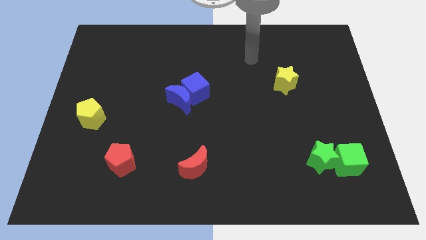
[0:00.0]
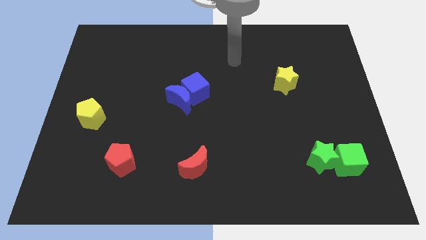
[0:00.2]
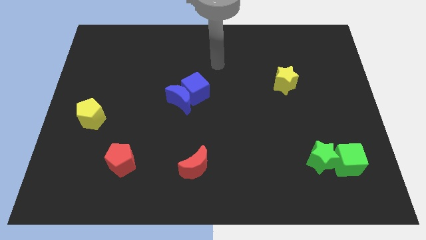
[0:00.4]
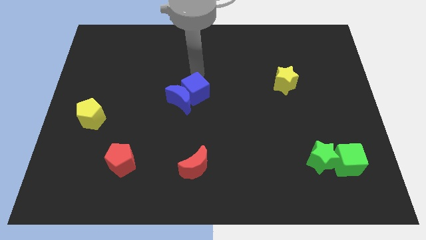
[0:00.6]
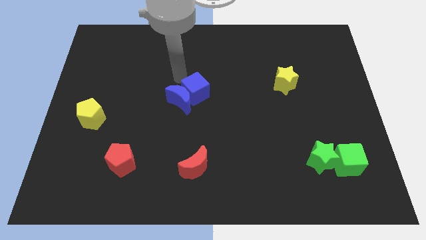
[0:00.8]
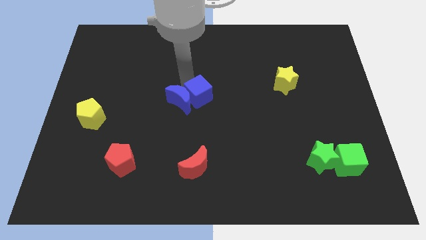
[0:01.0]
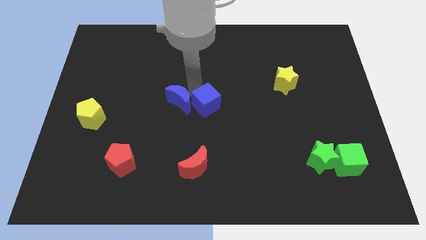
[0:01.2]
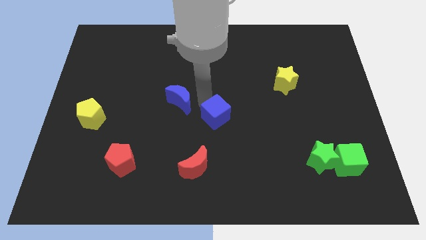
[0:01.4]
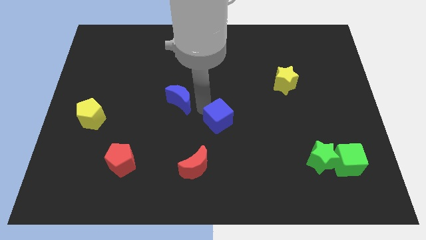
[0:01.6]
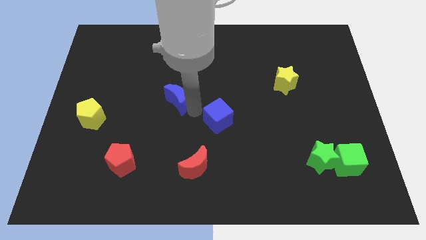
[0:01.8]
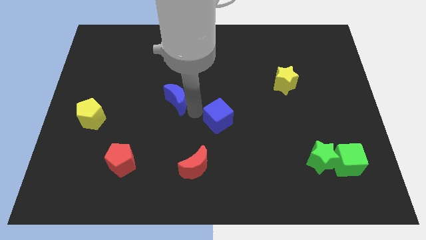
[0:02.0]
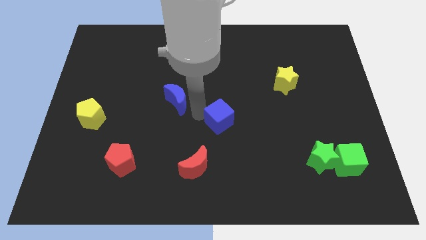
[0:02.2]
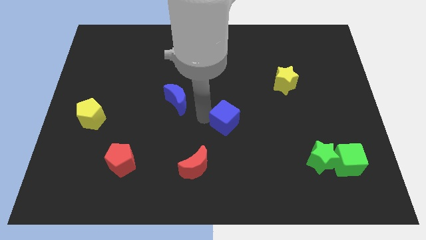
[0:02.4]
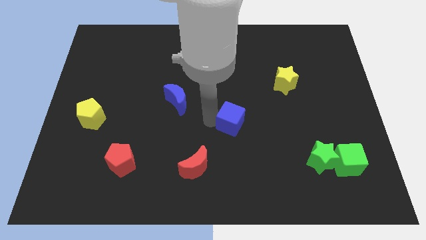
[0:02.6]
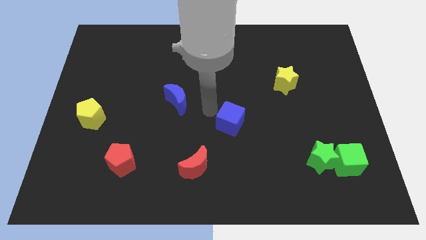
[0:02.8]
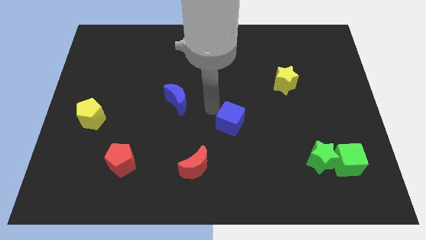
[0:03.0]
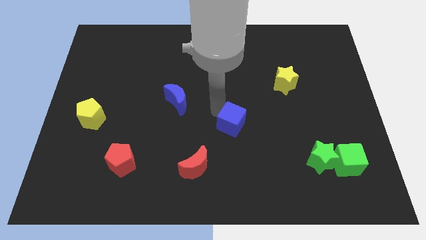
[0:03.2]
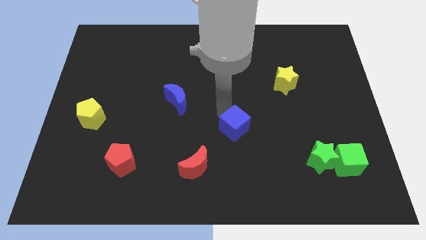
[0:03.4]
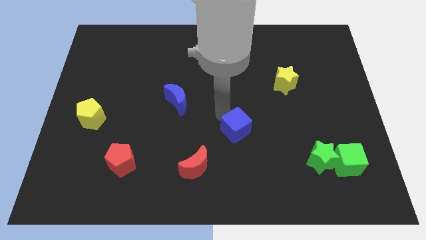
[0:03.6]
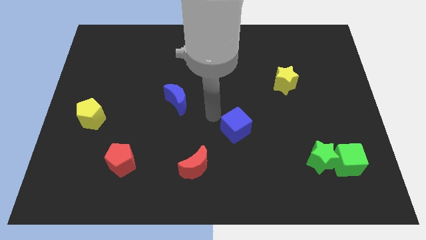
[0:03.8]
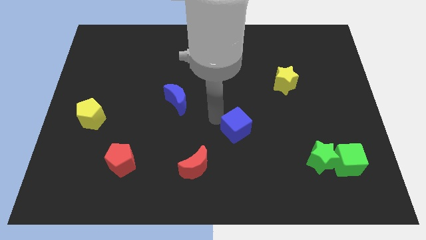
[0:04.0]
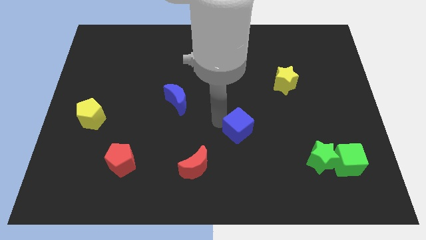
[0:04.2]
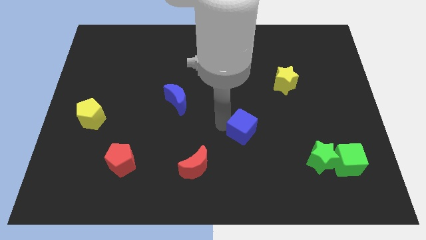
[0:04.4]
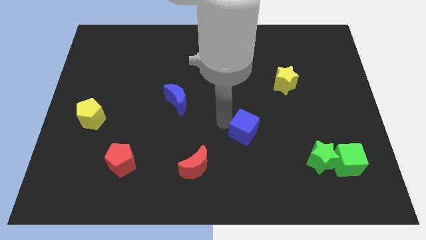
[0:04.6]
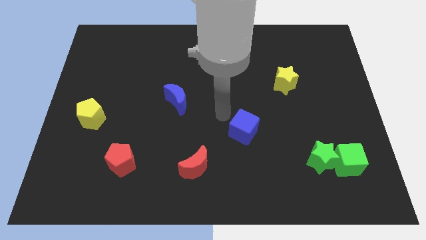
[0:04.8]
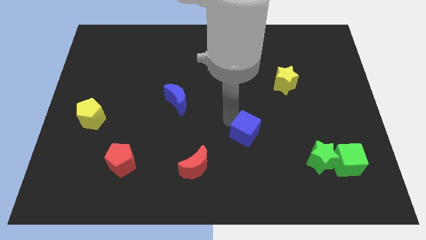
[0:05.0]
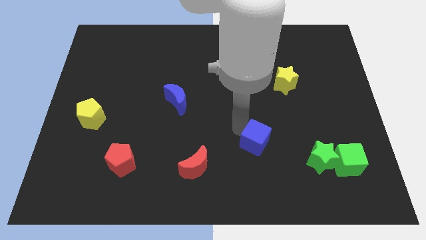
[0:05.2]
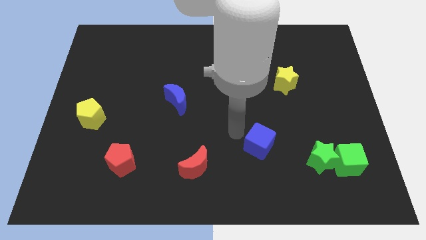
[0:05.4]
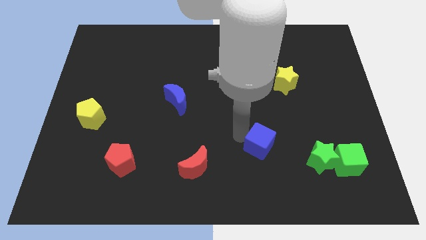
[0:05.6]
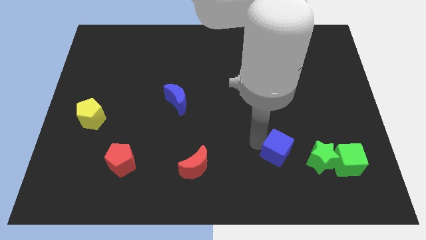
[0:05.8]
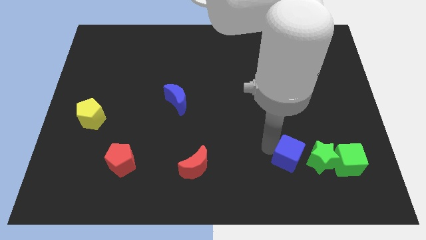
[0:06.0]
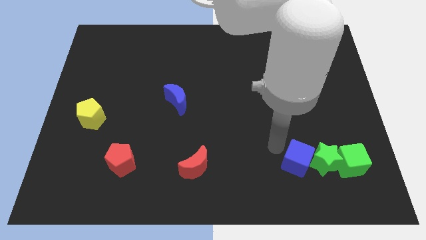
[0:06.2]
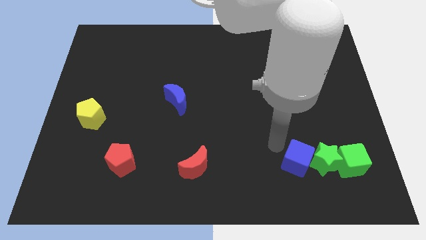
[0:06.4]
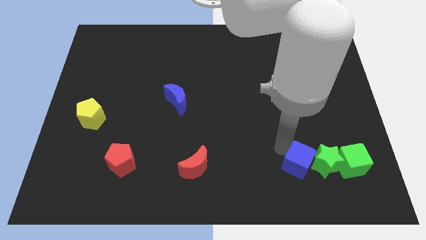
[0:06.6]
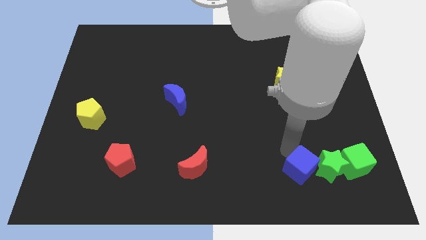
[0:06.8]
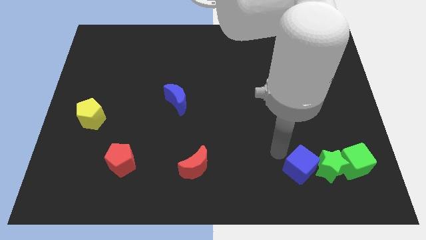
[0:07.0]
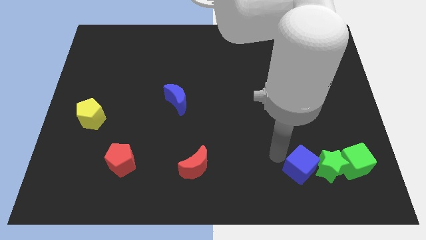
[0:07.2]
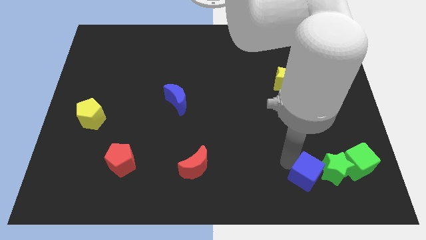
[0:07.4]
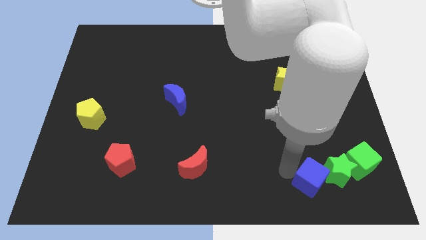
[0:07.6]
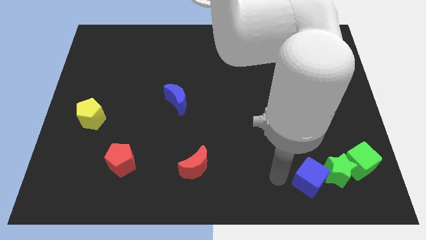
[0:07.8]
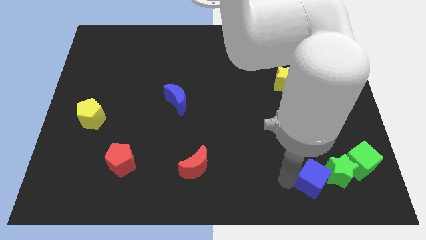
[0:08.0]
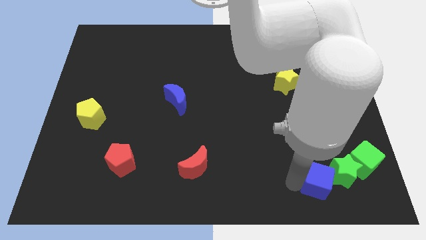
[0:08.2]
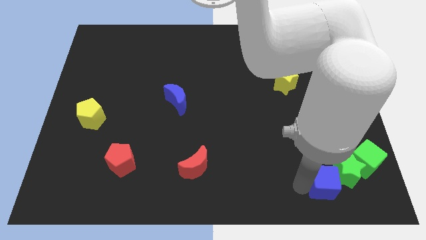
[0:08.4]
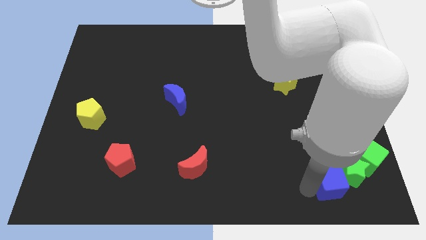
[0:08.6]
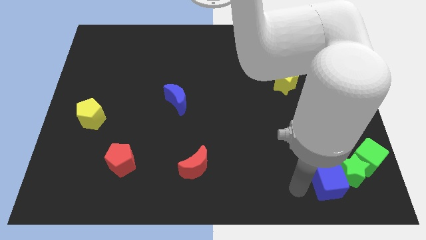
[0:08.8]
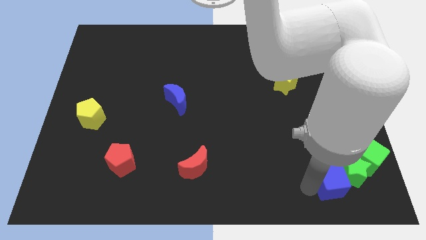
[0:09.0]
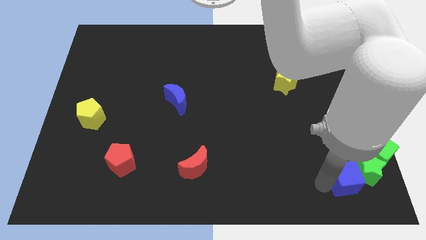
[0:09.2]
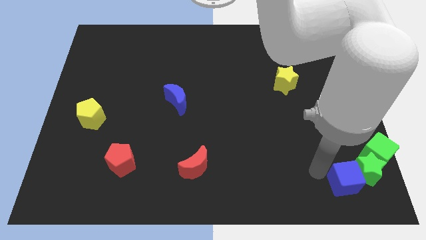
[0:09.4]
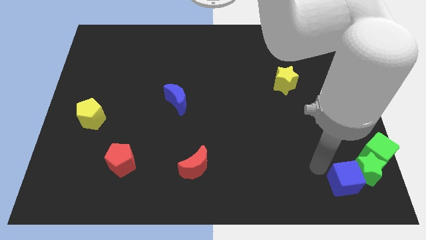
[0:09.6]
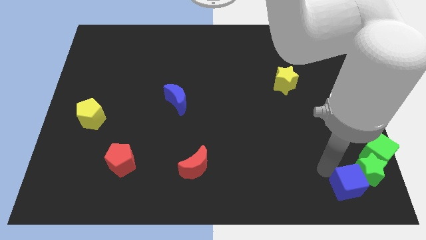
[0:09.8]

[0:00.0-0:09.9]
move the blue cube to the bottom right corner

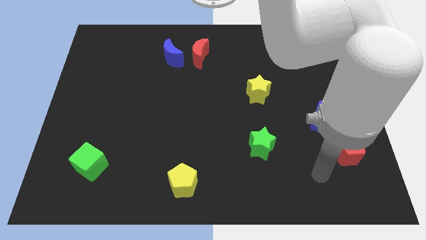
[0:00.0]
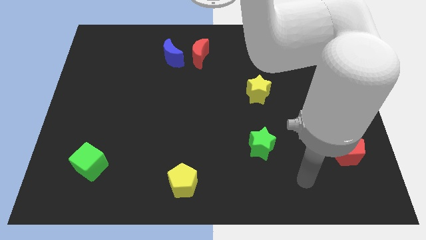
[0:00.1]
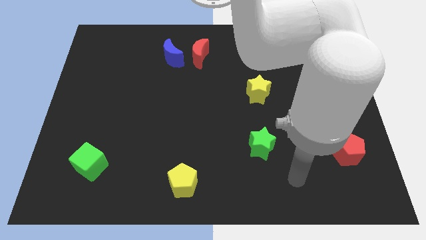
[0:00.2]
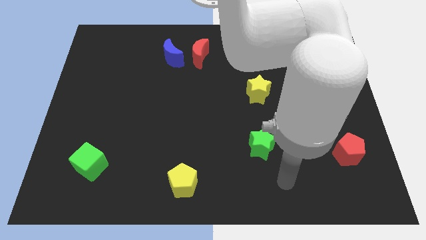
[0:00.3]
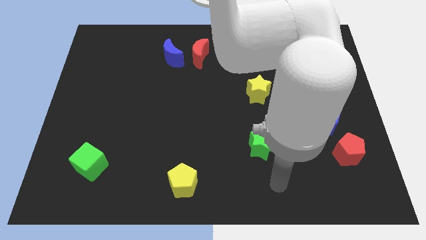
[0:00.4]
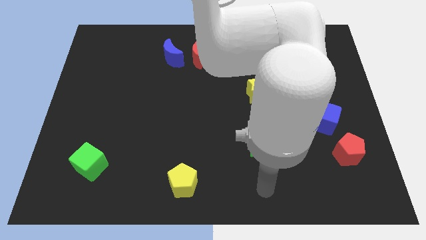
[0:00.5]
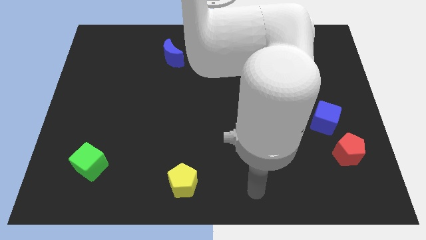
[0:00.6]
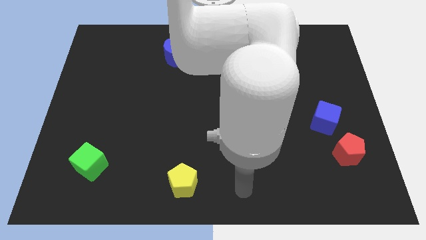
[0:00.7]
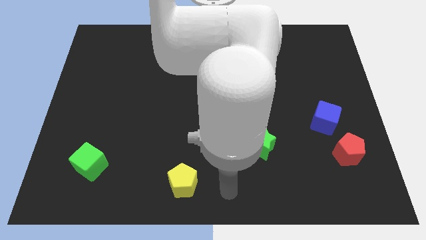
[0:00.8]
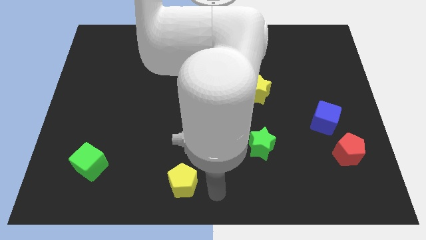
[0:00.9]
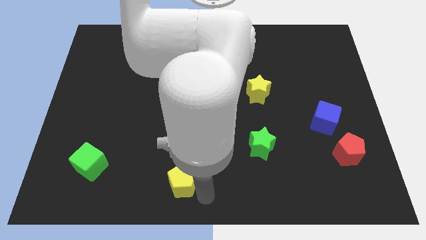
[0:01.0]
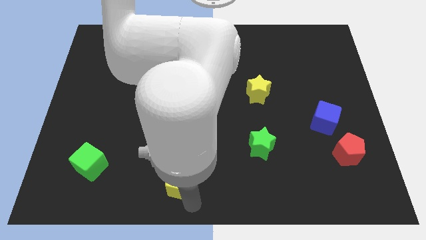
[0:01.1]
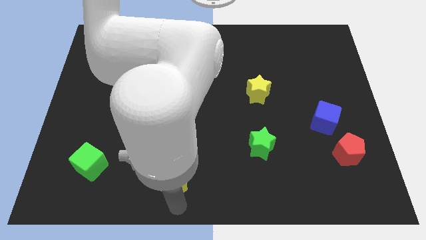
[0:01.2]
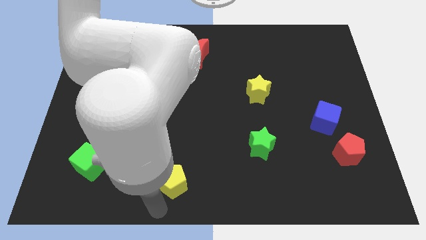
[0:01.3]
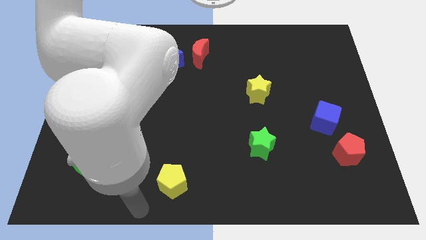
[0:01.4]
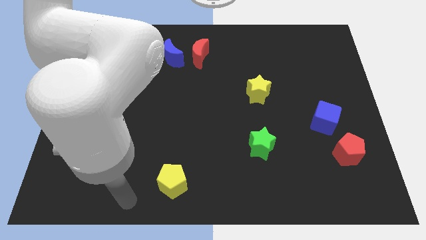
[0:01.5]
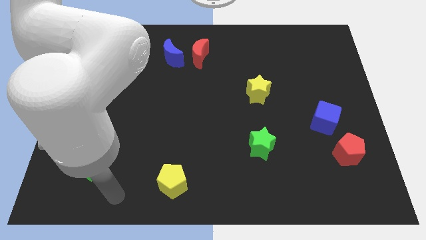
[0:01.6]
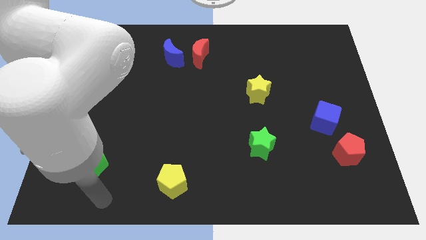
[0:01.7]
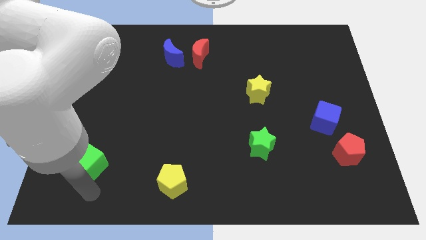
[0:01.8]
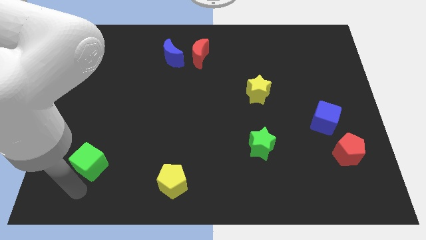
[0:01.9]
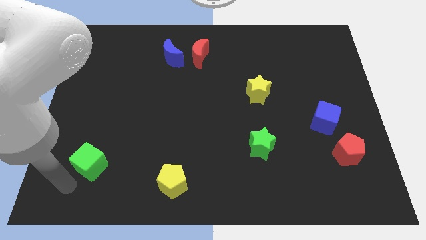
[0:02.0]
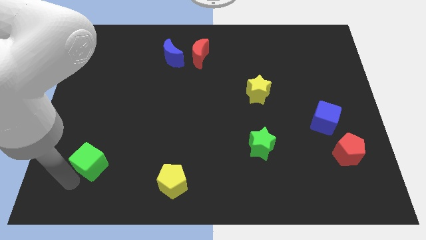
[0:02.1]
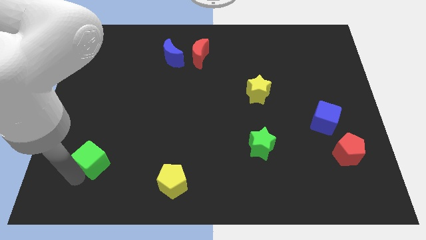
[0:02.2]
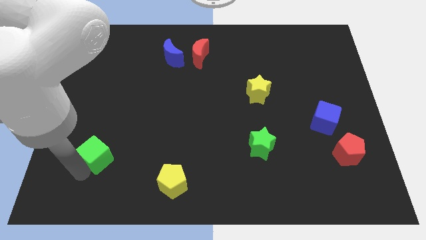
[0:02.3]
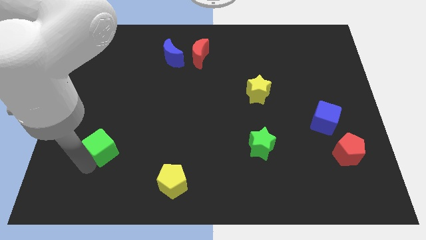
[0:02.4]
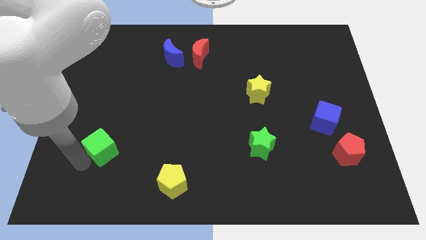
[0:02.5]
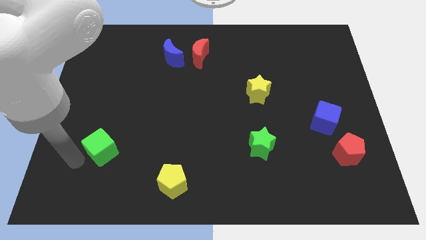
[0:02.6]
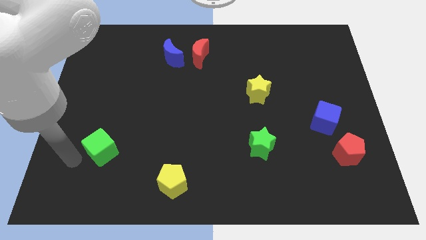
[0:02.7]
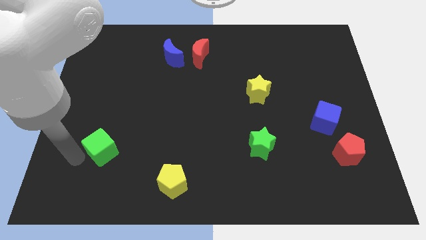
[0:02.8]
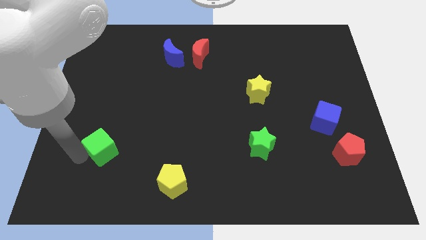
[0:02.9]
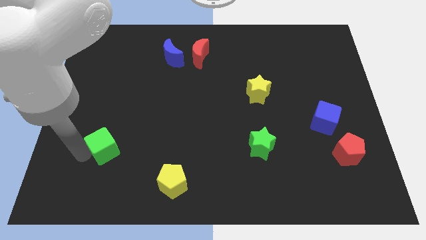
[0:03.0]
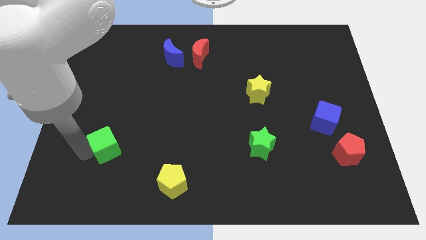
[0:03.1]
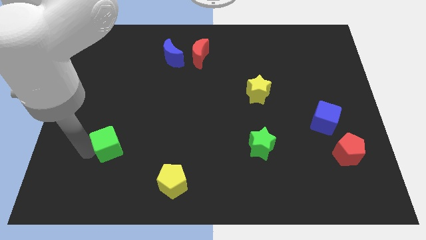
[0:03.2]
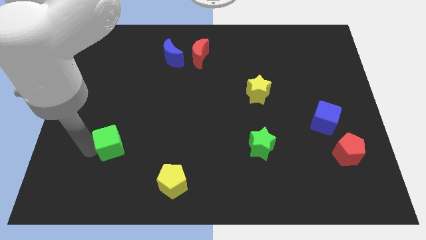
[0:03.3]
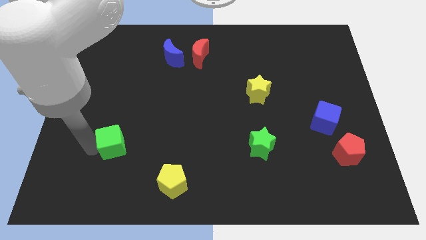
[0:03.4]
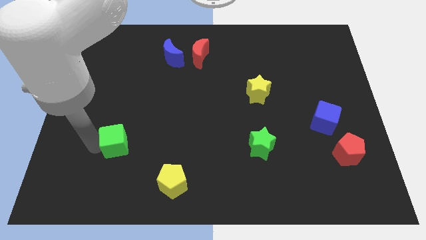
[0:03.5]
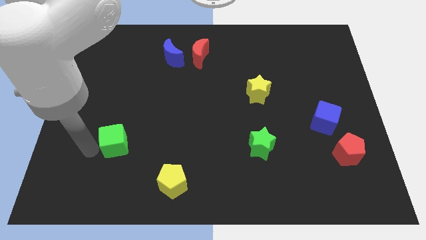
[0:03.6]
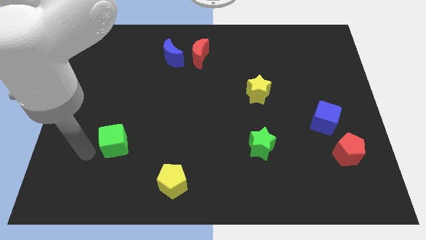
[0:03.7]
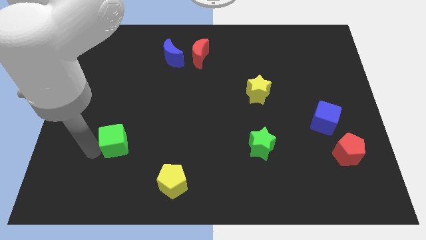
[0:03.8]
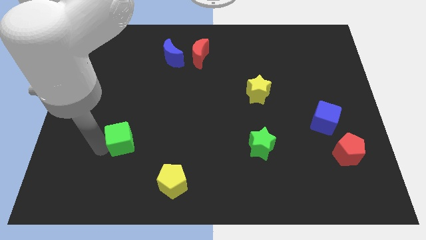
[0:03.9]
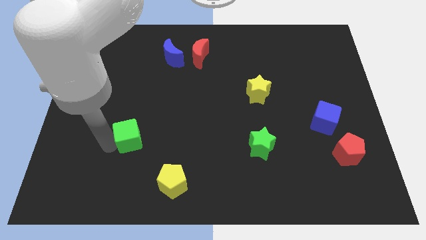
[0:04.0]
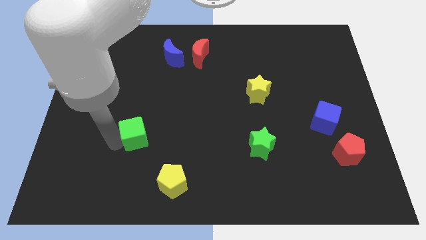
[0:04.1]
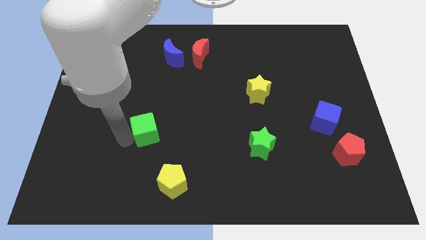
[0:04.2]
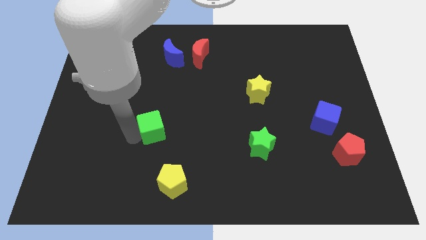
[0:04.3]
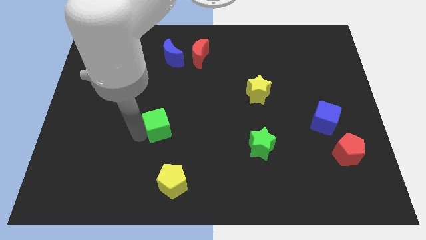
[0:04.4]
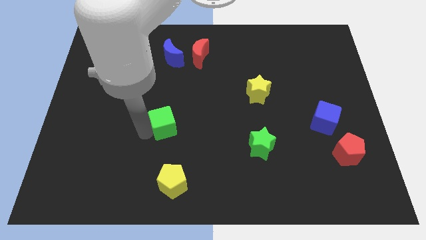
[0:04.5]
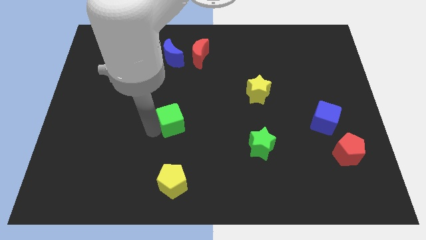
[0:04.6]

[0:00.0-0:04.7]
move the green cube to the middle of the board
